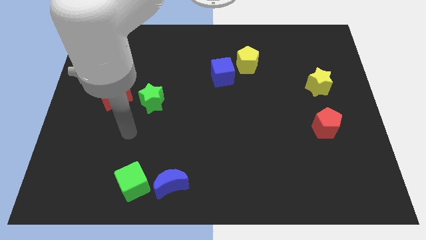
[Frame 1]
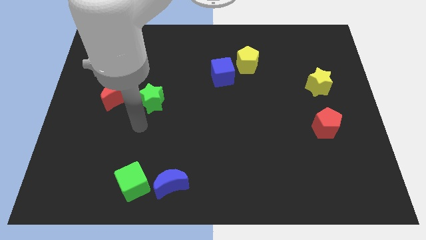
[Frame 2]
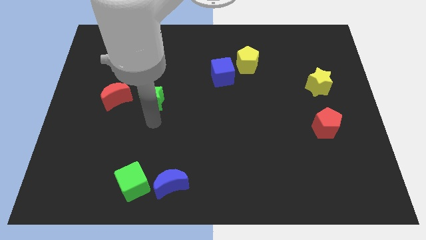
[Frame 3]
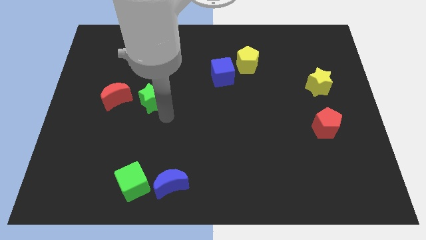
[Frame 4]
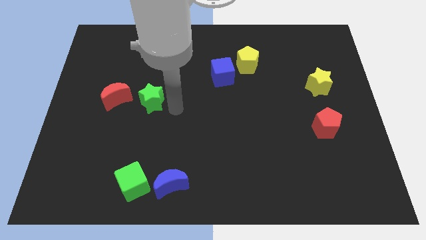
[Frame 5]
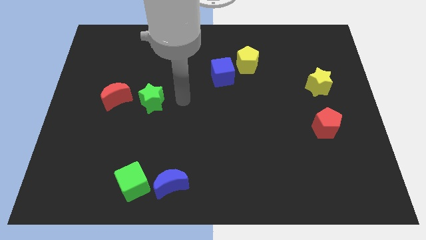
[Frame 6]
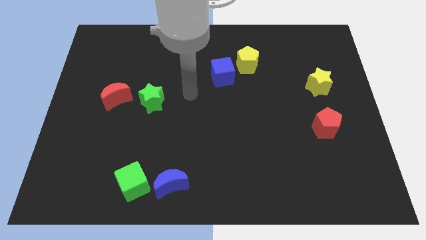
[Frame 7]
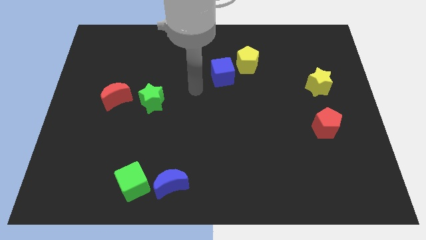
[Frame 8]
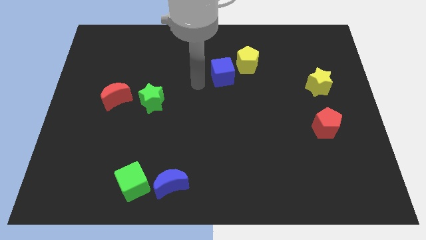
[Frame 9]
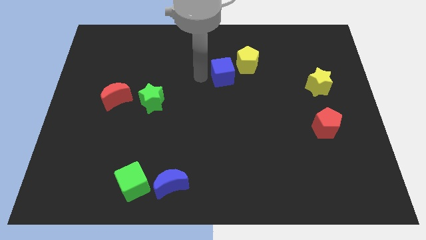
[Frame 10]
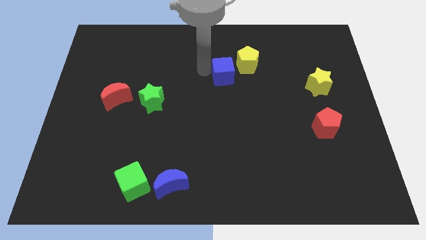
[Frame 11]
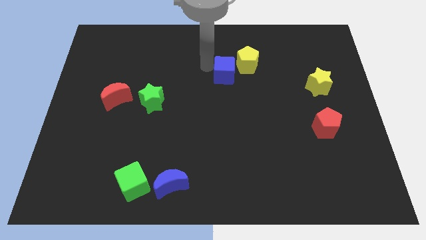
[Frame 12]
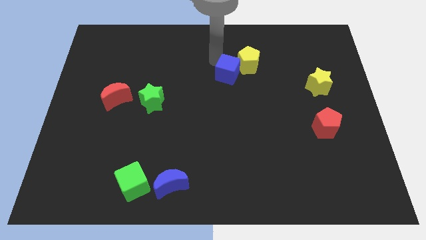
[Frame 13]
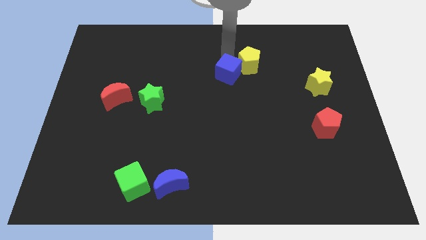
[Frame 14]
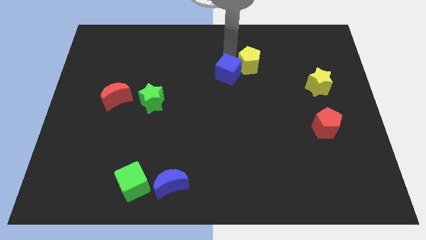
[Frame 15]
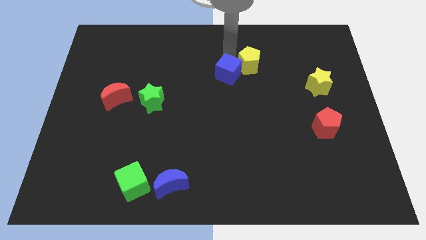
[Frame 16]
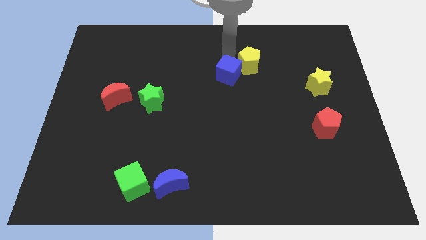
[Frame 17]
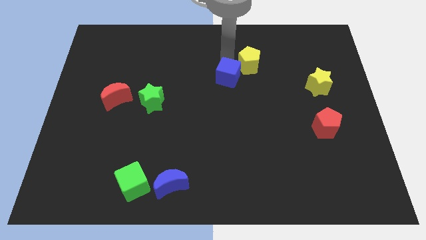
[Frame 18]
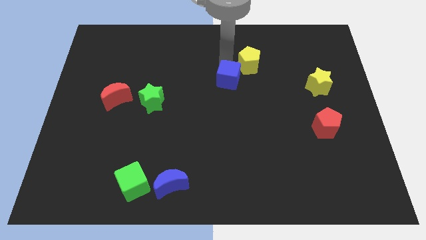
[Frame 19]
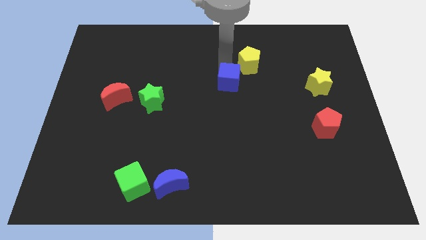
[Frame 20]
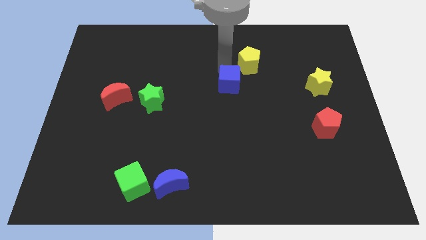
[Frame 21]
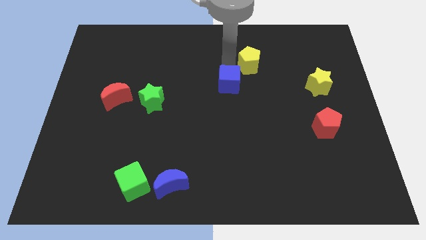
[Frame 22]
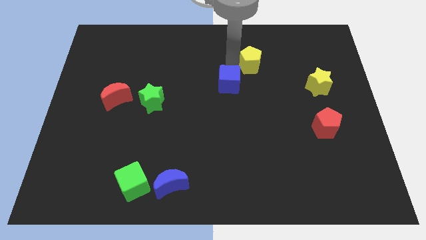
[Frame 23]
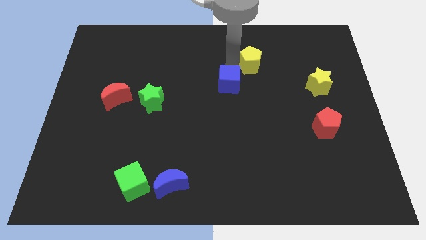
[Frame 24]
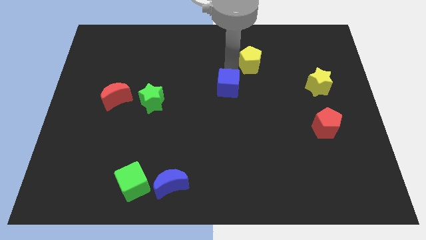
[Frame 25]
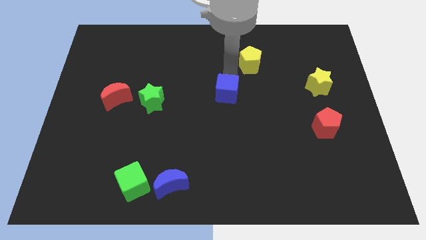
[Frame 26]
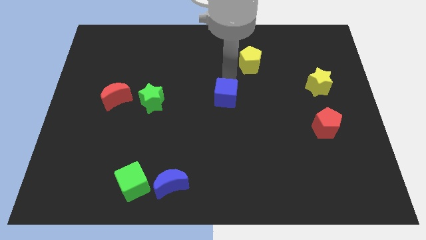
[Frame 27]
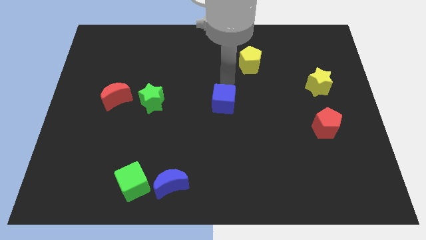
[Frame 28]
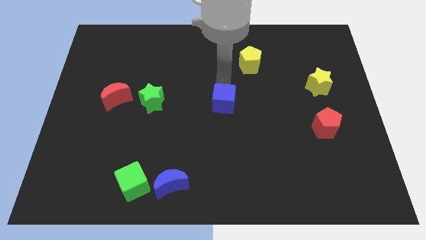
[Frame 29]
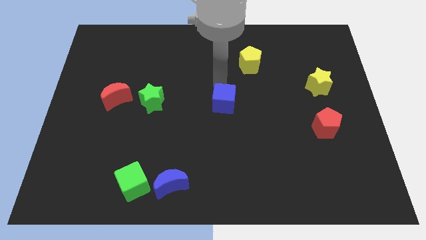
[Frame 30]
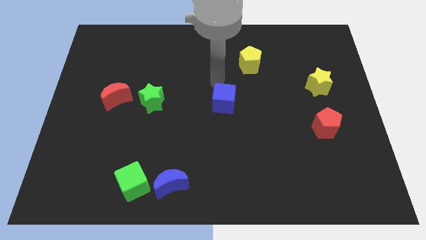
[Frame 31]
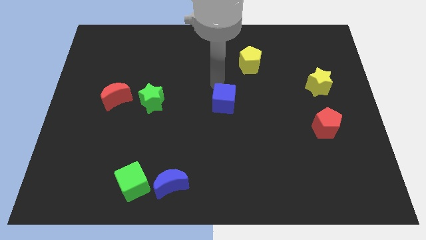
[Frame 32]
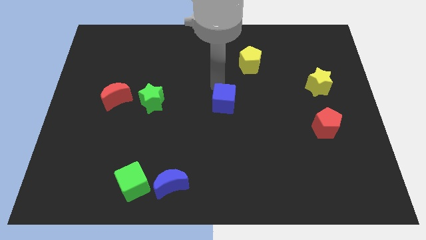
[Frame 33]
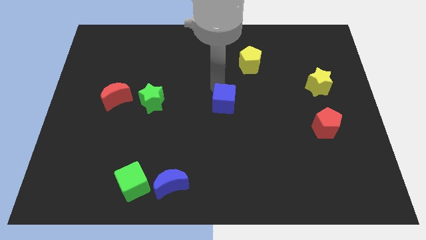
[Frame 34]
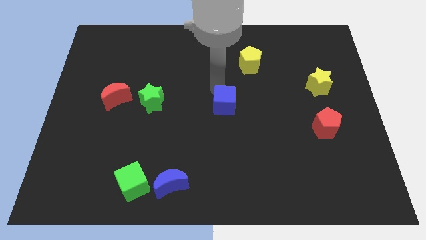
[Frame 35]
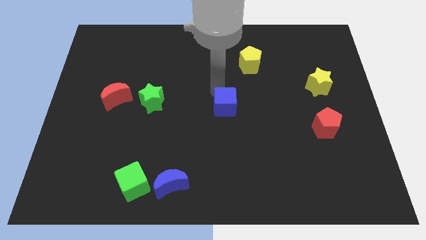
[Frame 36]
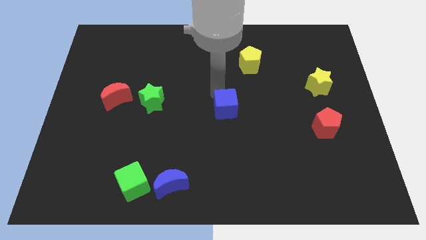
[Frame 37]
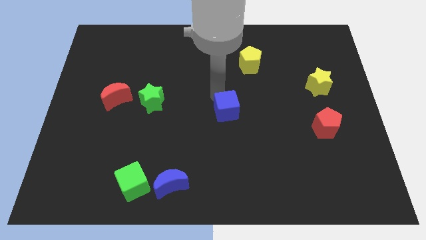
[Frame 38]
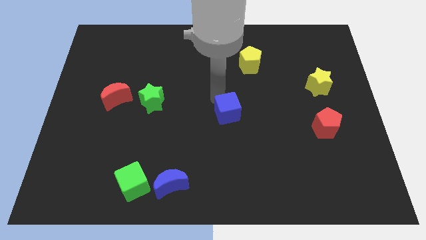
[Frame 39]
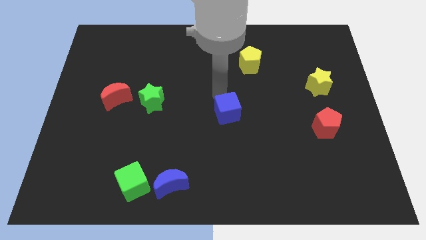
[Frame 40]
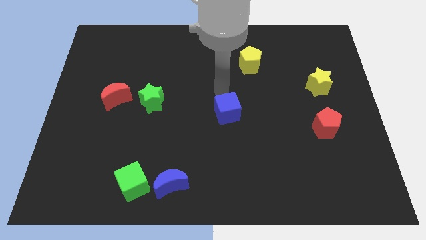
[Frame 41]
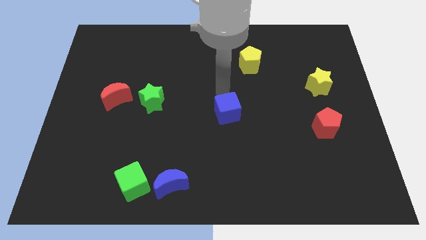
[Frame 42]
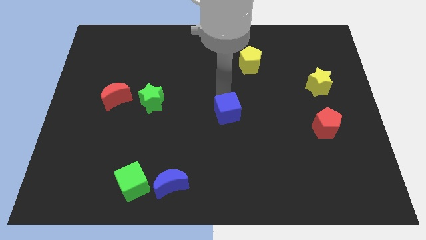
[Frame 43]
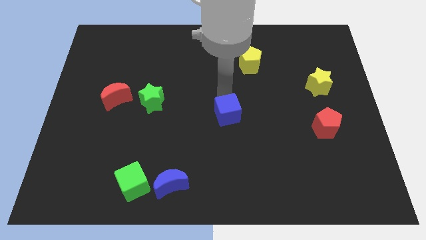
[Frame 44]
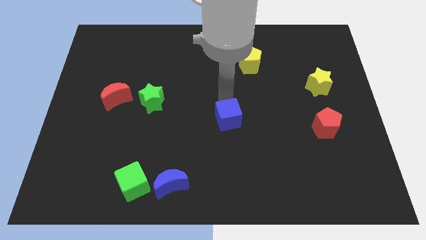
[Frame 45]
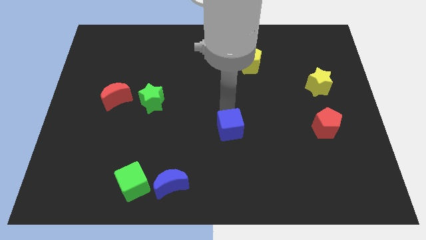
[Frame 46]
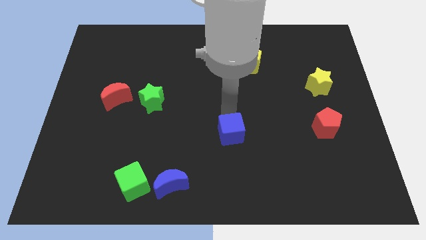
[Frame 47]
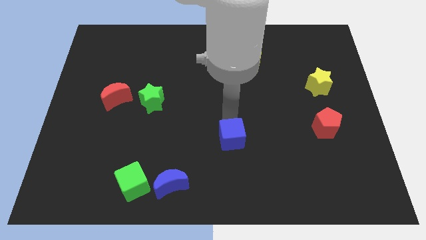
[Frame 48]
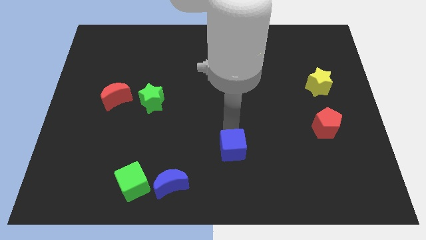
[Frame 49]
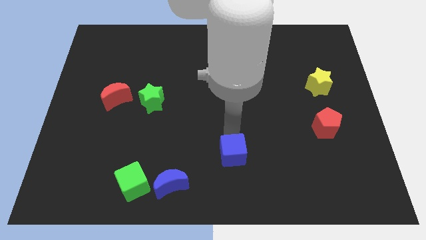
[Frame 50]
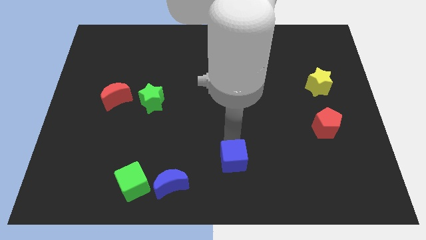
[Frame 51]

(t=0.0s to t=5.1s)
slide the blue cube to the bottom side

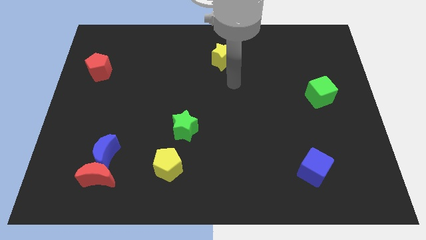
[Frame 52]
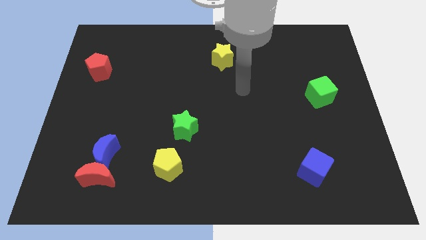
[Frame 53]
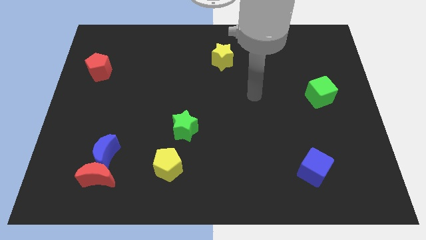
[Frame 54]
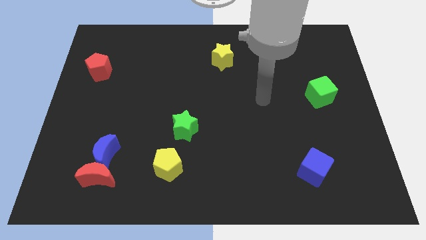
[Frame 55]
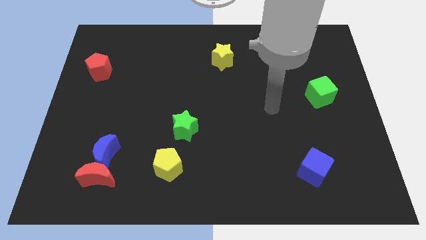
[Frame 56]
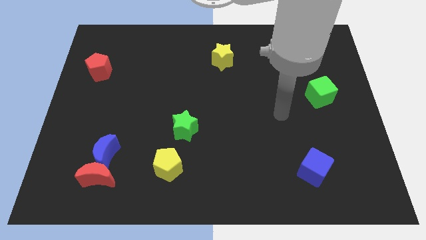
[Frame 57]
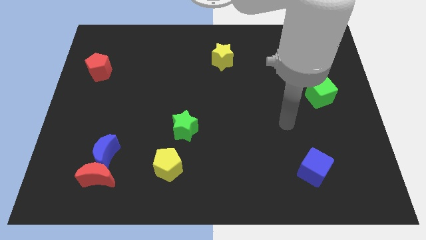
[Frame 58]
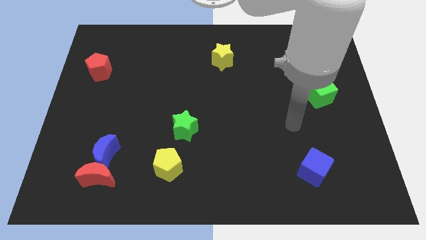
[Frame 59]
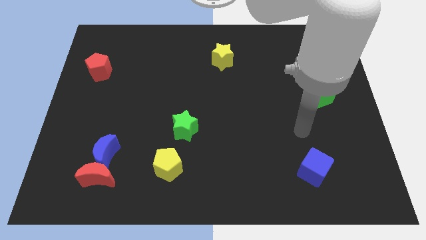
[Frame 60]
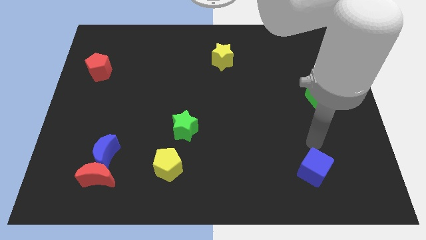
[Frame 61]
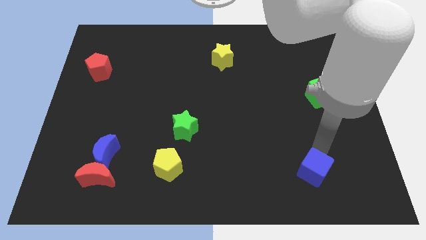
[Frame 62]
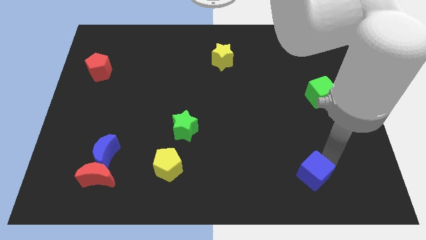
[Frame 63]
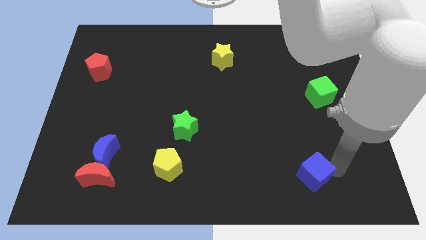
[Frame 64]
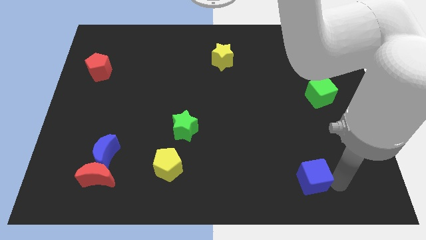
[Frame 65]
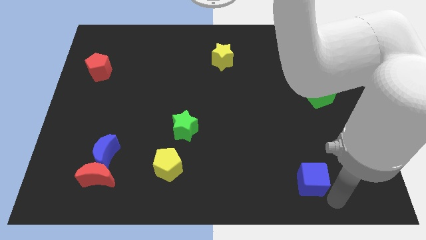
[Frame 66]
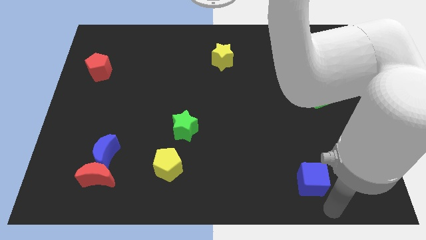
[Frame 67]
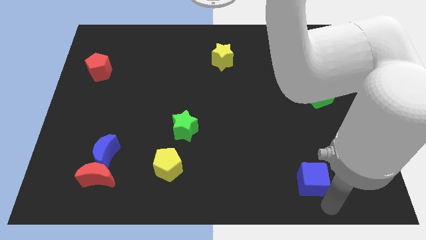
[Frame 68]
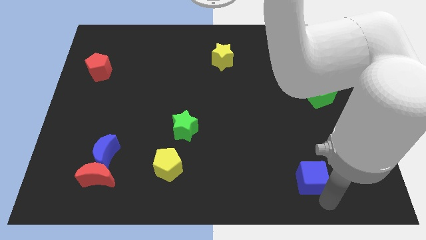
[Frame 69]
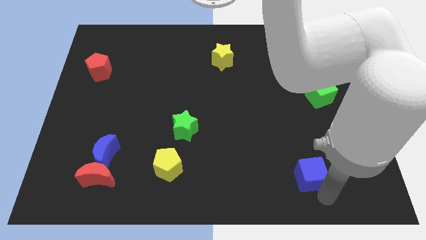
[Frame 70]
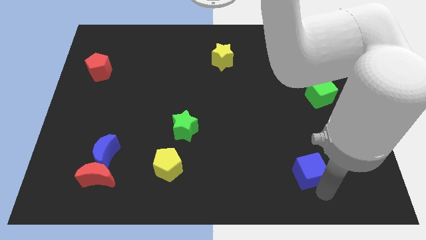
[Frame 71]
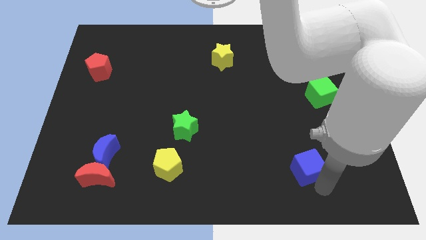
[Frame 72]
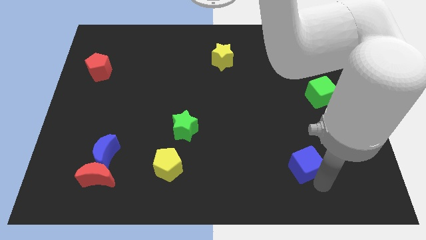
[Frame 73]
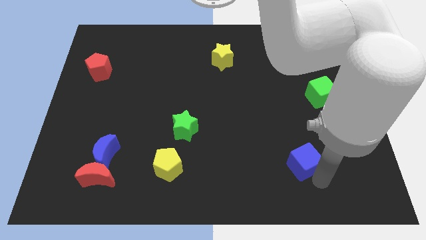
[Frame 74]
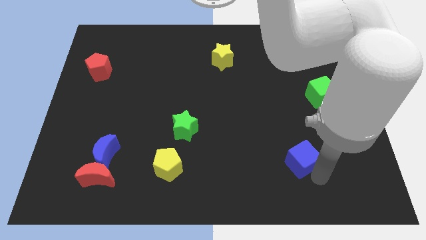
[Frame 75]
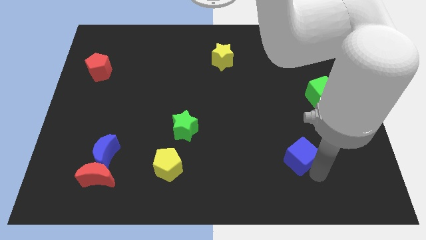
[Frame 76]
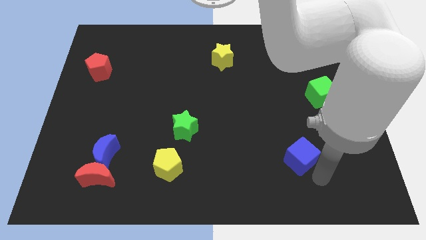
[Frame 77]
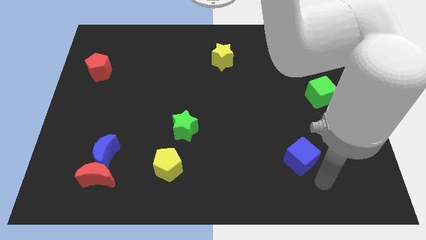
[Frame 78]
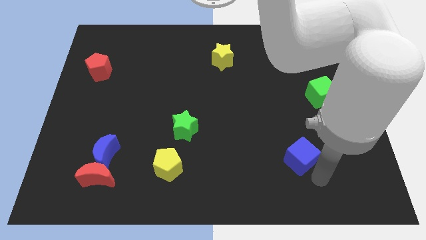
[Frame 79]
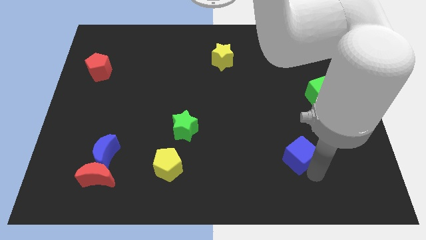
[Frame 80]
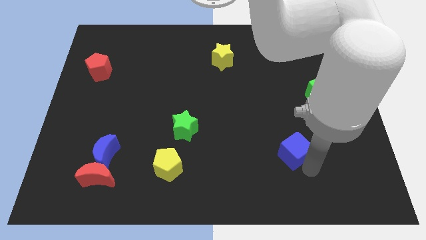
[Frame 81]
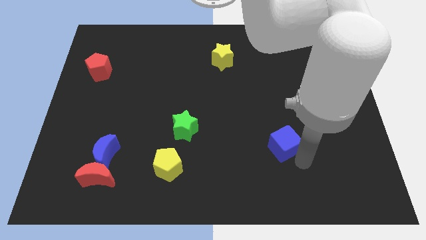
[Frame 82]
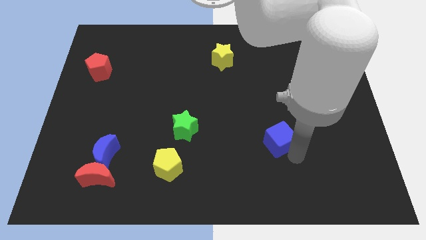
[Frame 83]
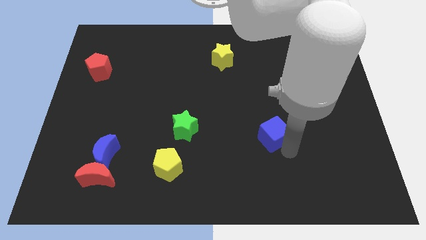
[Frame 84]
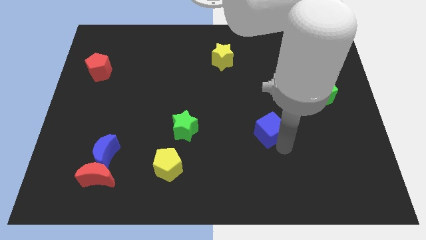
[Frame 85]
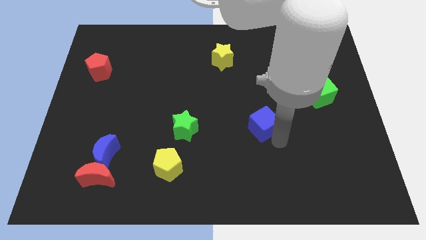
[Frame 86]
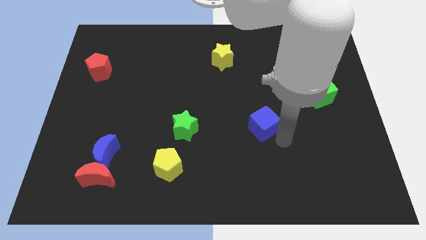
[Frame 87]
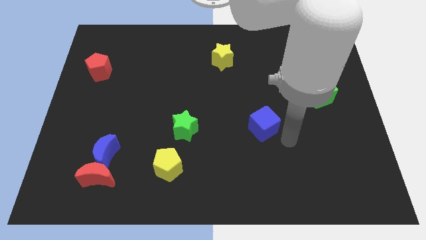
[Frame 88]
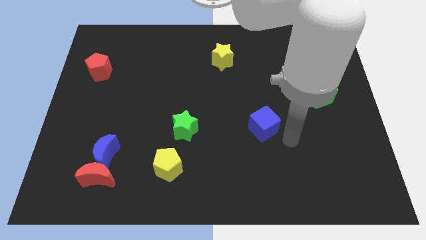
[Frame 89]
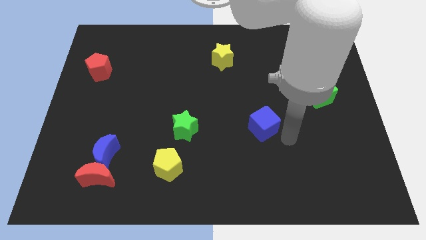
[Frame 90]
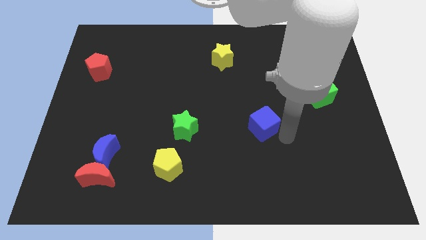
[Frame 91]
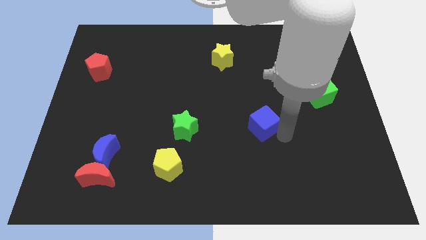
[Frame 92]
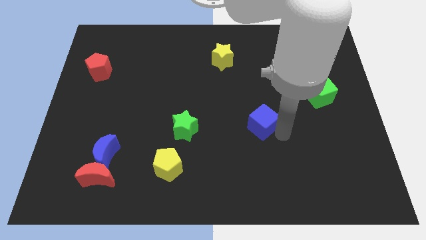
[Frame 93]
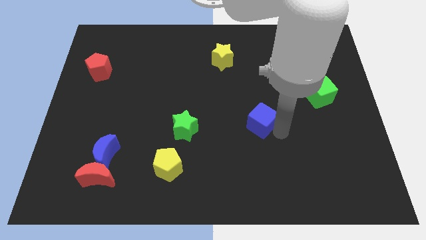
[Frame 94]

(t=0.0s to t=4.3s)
move the blue cube to the middle of the board
